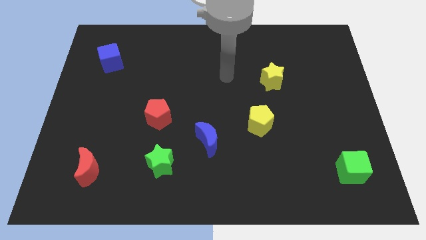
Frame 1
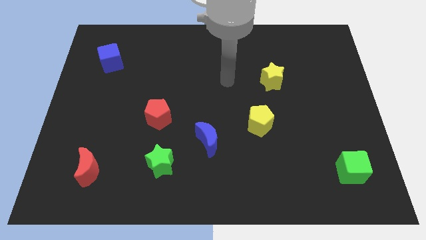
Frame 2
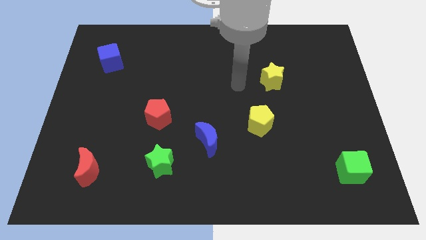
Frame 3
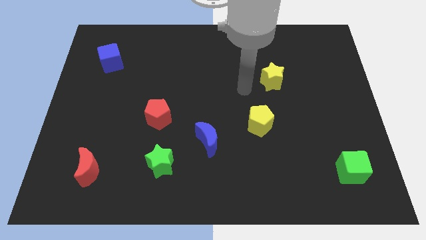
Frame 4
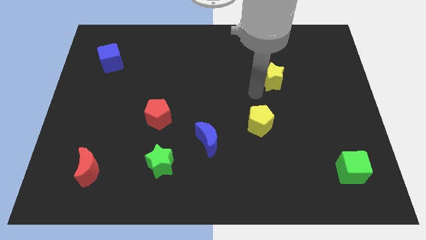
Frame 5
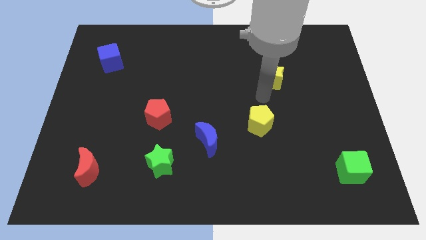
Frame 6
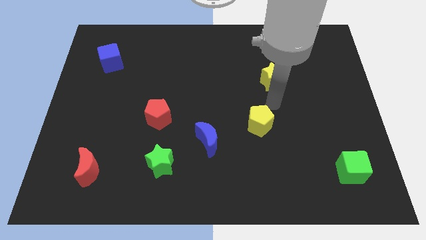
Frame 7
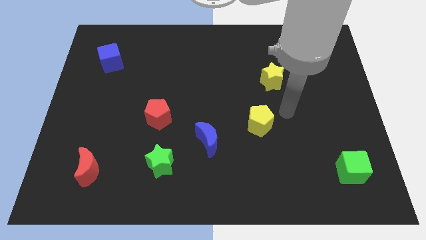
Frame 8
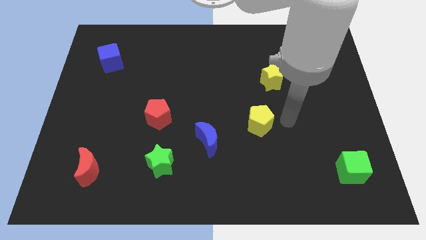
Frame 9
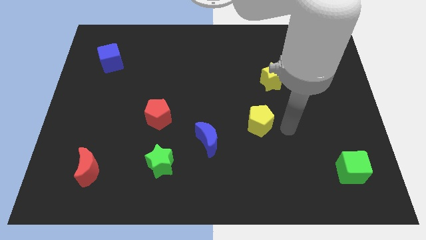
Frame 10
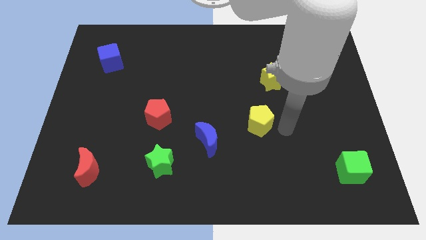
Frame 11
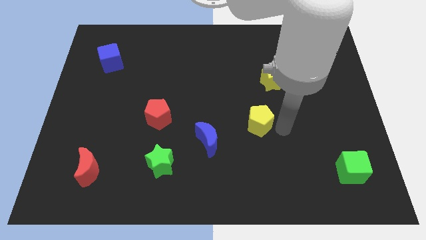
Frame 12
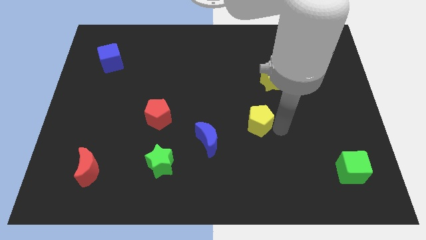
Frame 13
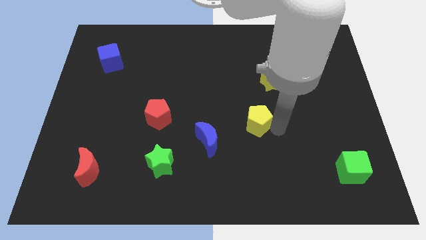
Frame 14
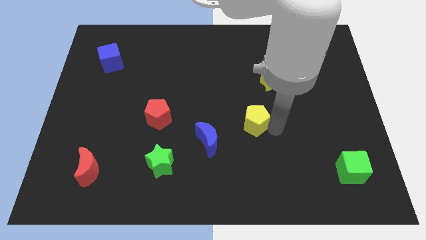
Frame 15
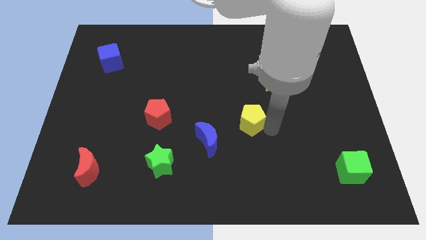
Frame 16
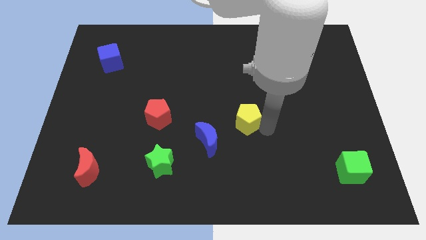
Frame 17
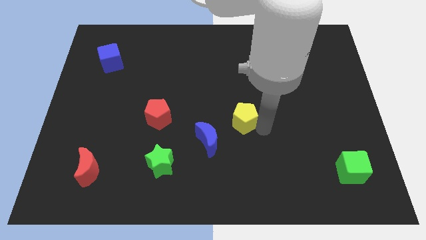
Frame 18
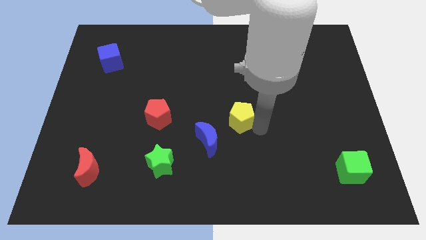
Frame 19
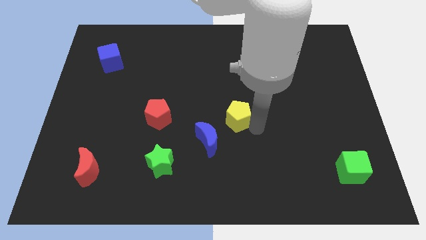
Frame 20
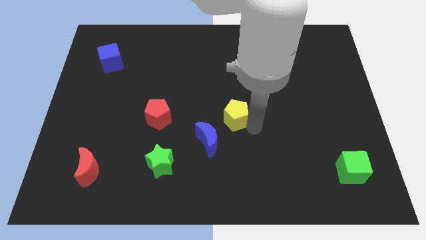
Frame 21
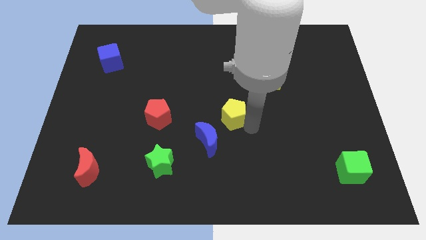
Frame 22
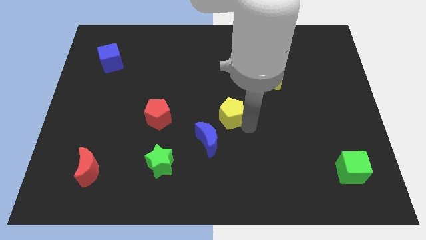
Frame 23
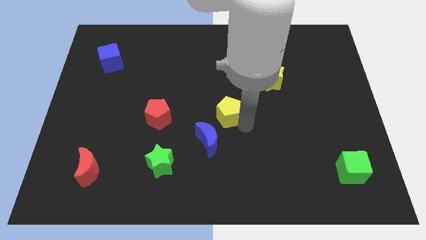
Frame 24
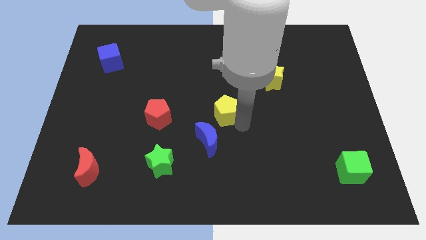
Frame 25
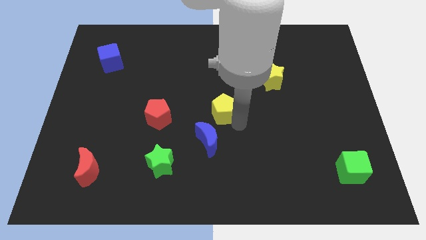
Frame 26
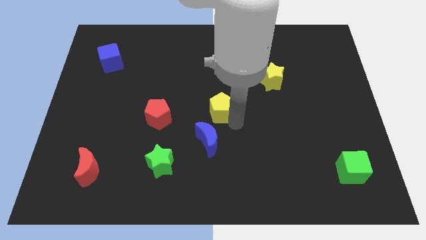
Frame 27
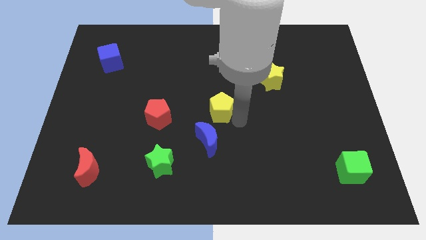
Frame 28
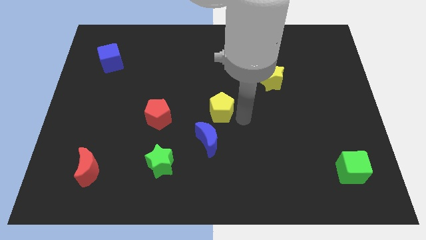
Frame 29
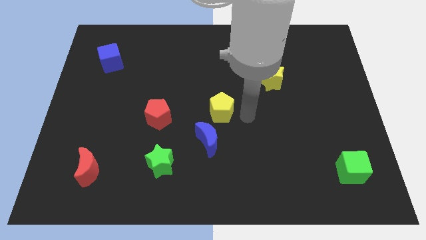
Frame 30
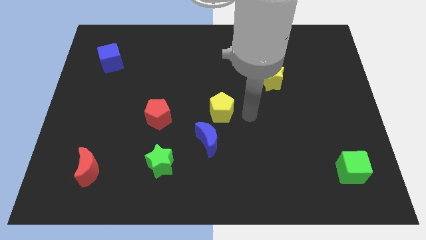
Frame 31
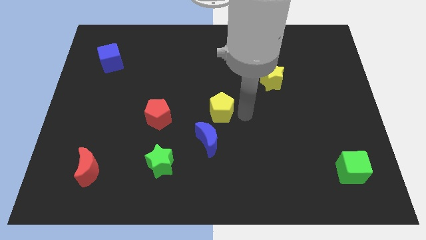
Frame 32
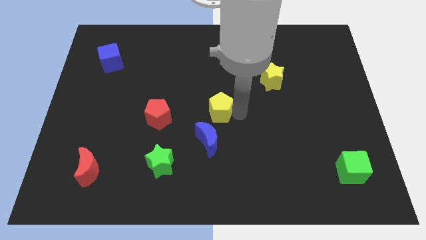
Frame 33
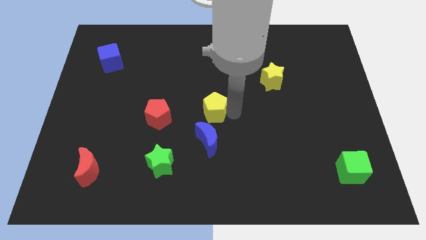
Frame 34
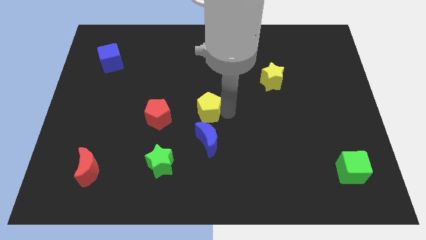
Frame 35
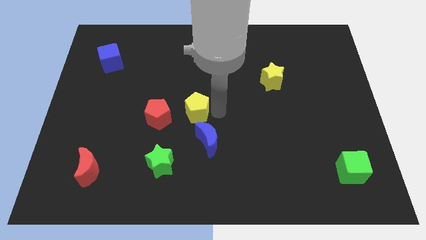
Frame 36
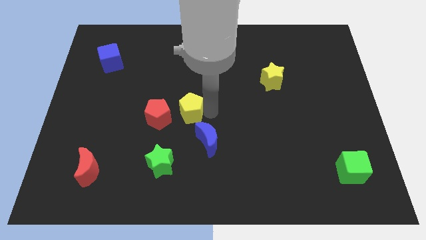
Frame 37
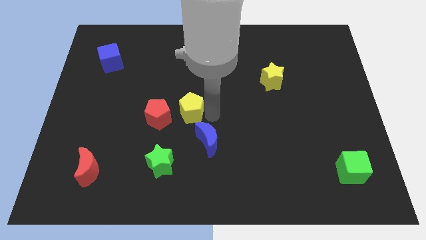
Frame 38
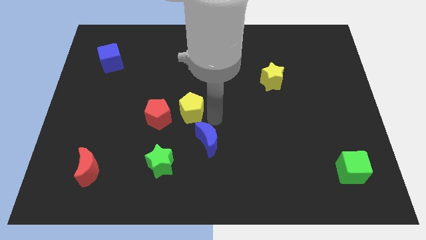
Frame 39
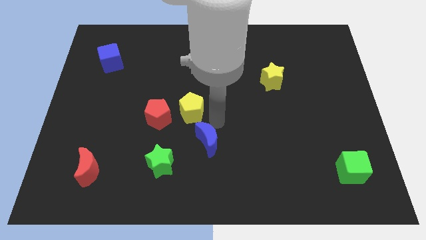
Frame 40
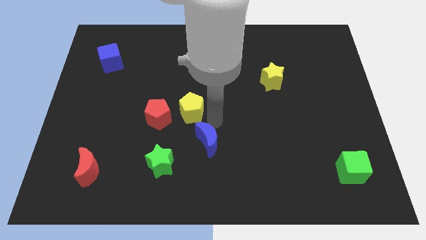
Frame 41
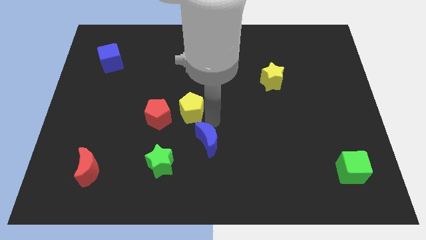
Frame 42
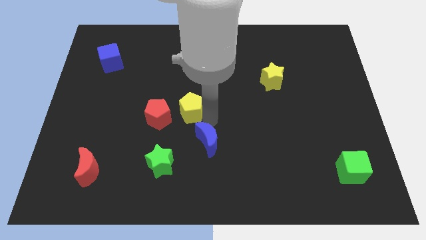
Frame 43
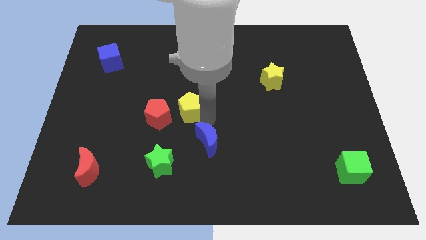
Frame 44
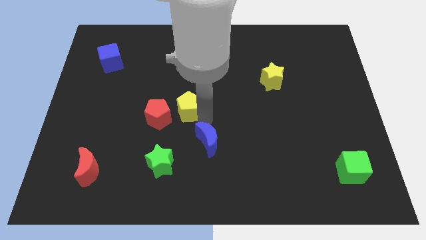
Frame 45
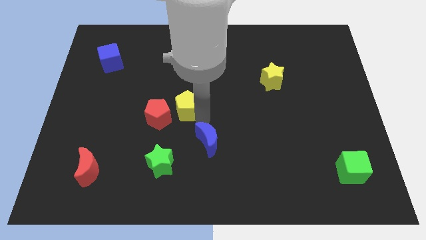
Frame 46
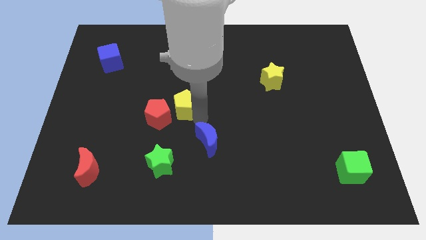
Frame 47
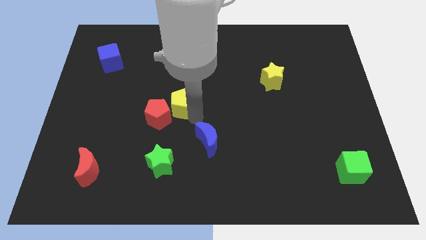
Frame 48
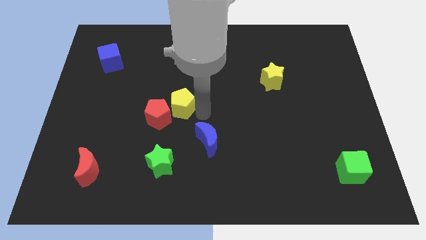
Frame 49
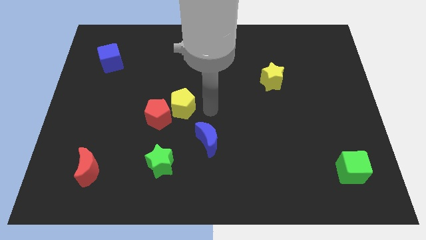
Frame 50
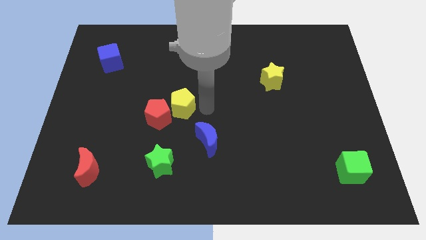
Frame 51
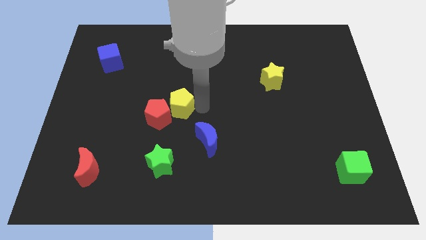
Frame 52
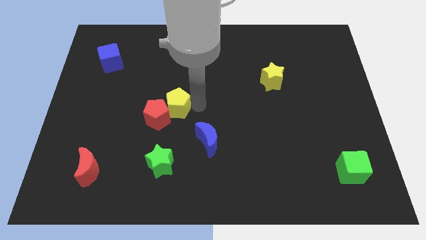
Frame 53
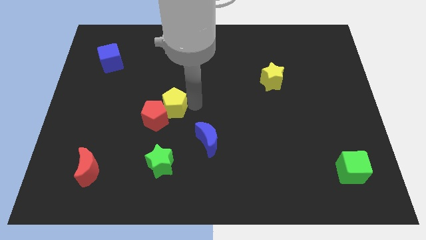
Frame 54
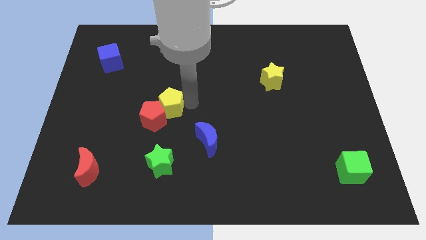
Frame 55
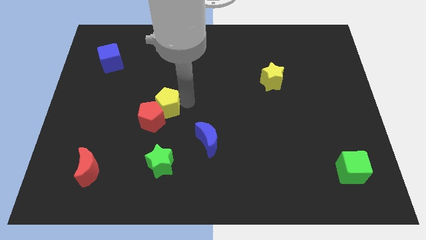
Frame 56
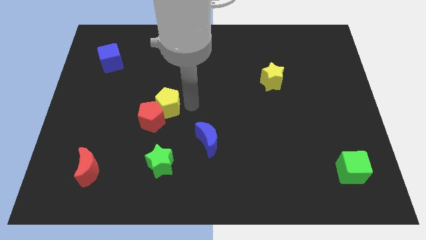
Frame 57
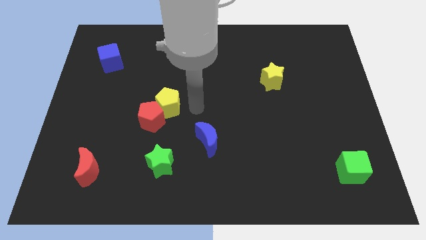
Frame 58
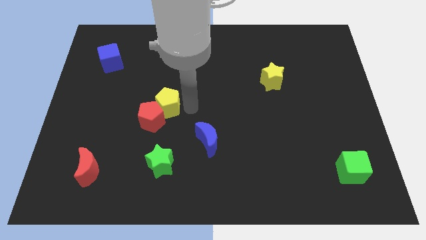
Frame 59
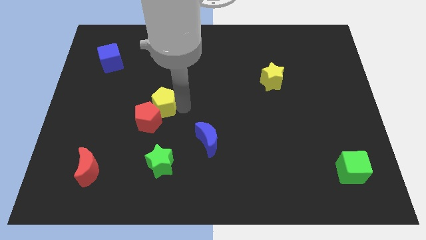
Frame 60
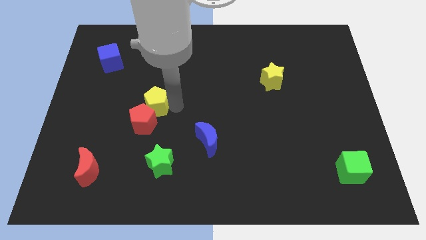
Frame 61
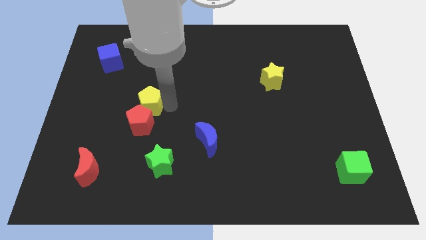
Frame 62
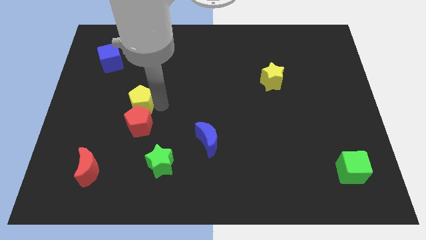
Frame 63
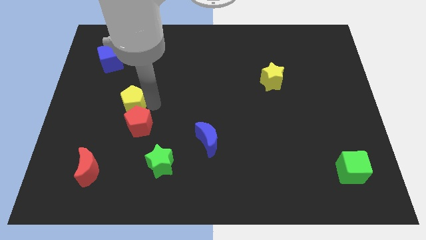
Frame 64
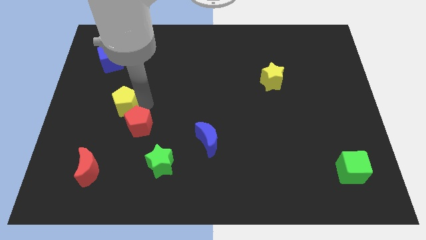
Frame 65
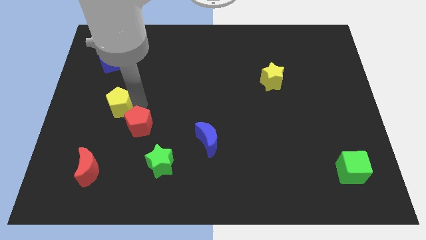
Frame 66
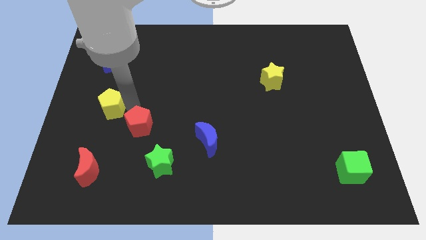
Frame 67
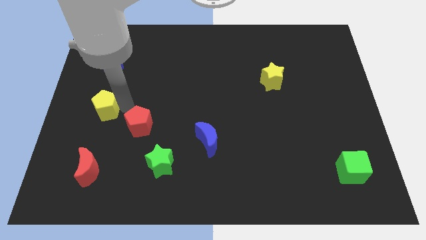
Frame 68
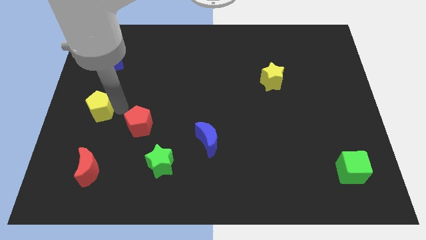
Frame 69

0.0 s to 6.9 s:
put the yellow pentagon to the left side

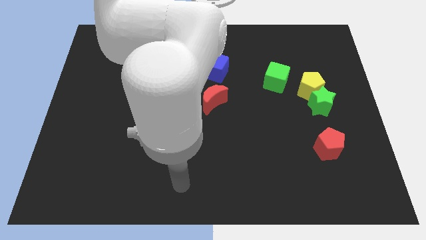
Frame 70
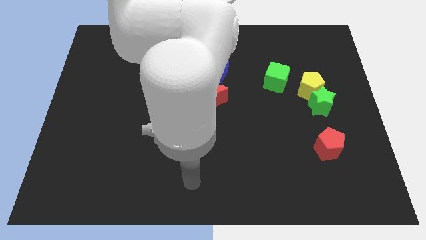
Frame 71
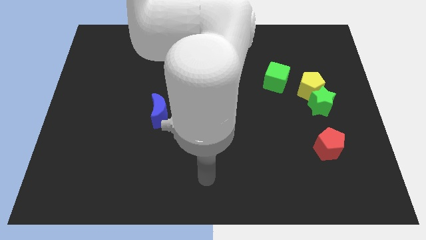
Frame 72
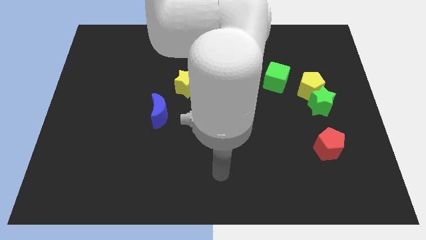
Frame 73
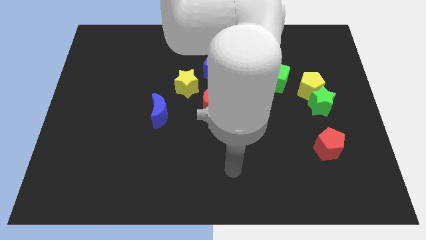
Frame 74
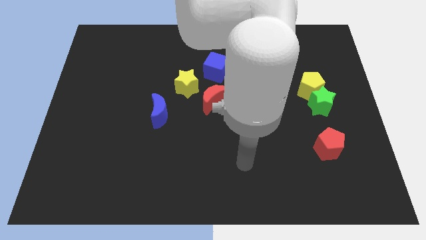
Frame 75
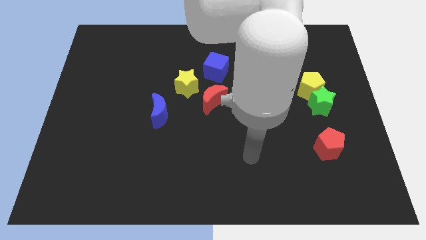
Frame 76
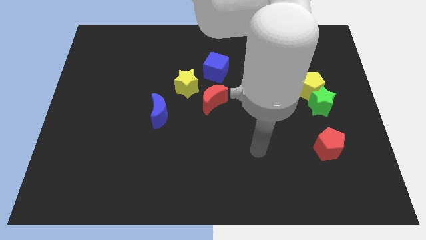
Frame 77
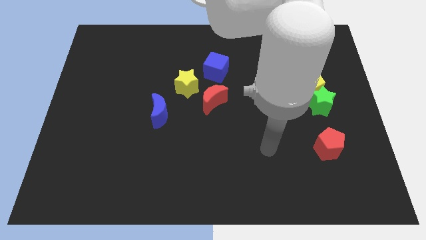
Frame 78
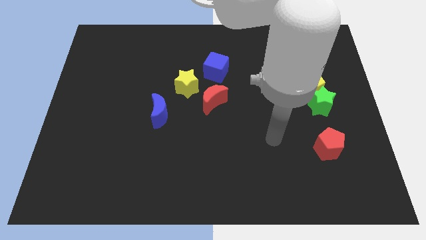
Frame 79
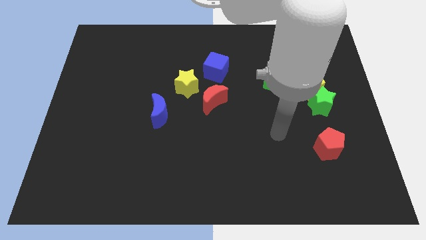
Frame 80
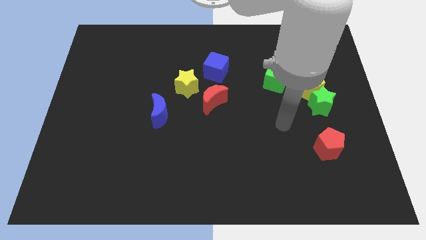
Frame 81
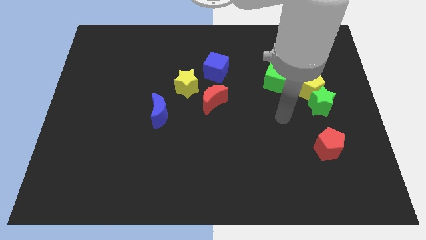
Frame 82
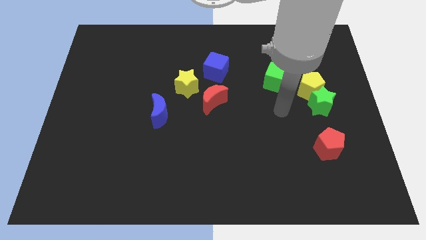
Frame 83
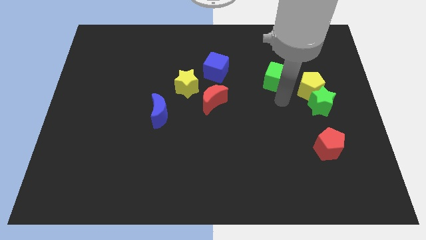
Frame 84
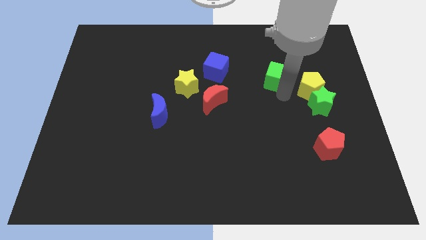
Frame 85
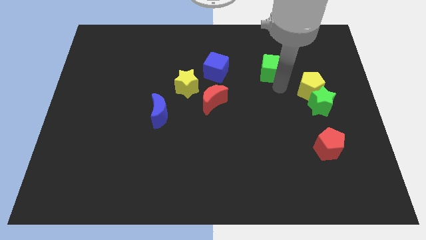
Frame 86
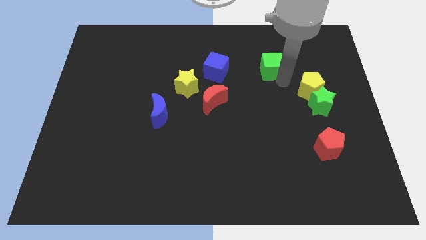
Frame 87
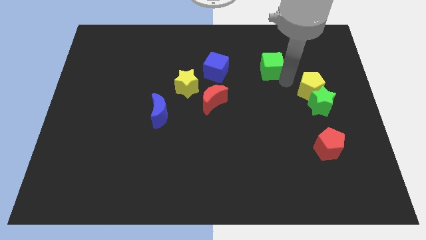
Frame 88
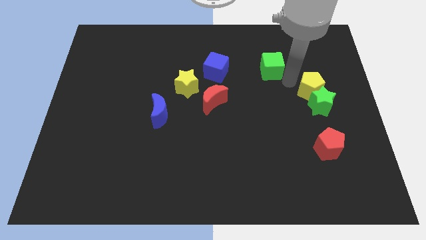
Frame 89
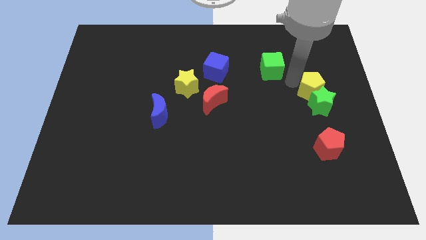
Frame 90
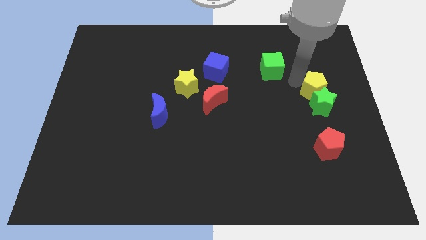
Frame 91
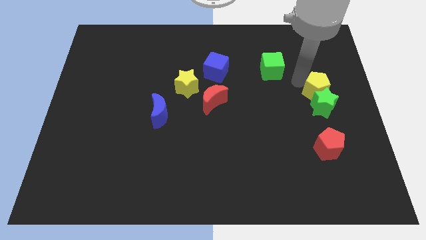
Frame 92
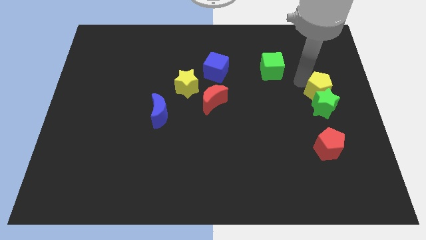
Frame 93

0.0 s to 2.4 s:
put the yellow pentagon to the right side of the board
